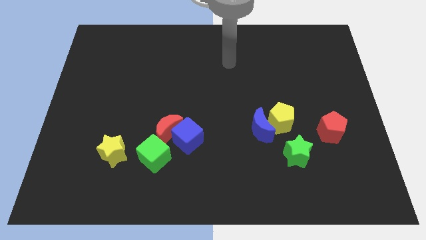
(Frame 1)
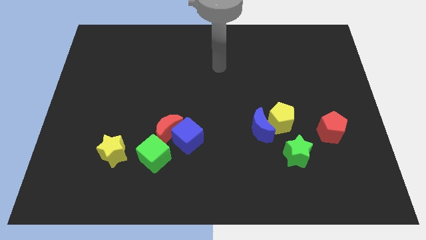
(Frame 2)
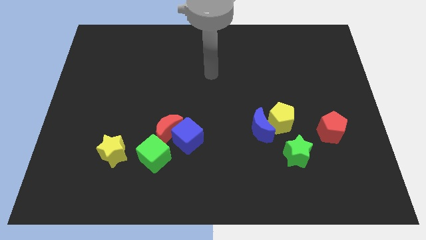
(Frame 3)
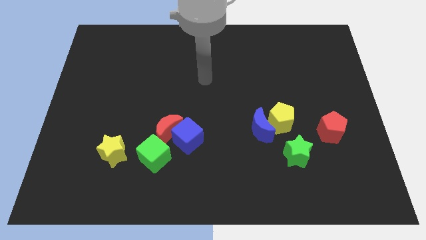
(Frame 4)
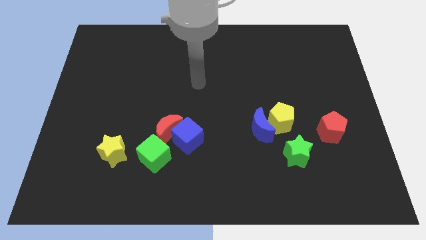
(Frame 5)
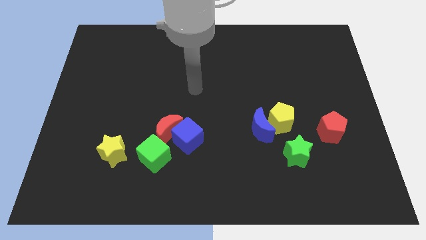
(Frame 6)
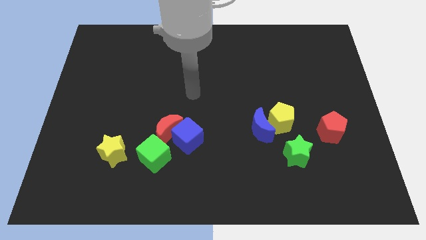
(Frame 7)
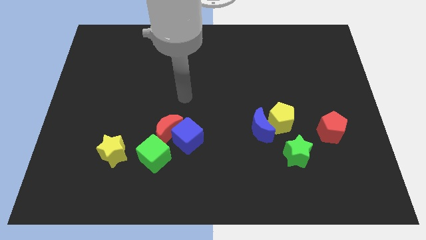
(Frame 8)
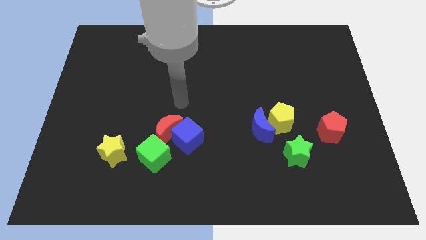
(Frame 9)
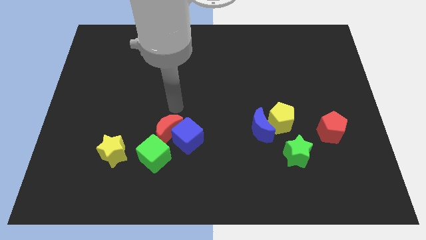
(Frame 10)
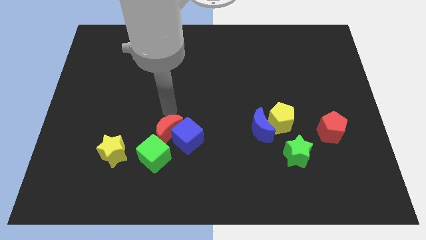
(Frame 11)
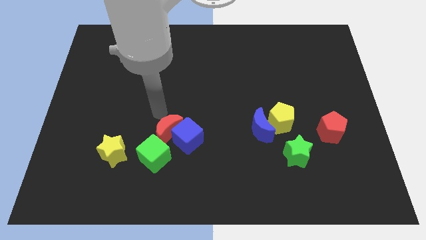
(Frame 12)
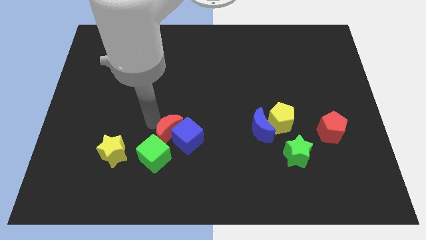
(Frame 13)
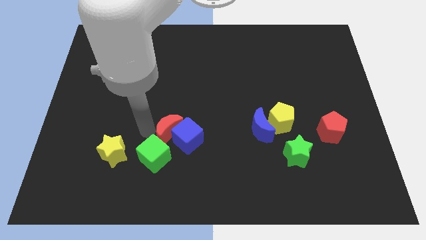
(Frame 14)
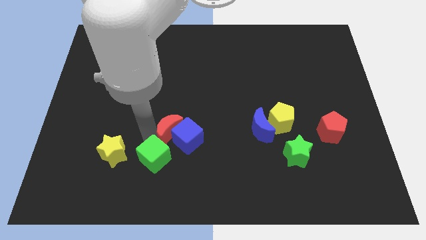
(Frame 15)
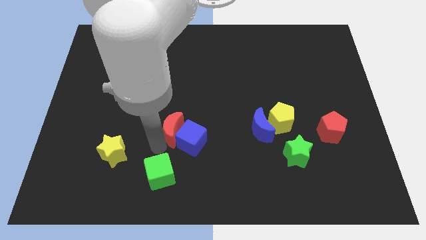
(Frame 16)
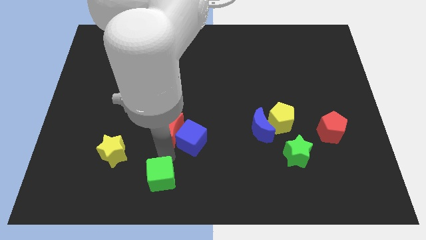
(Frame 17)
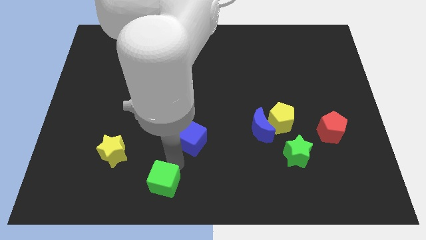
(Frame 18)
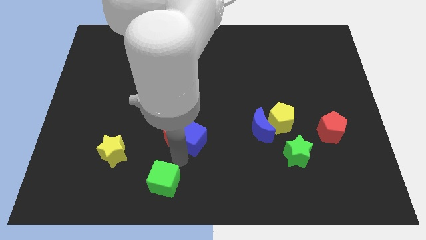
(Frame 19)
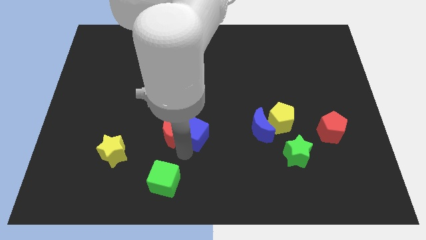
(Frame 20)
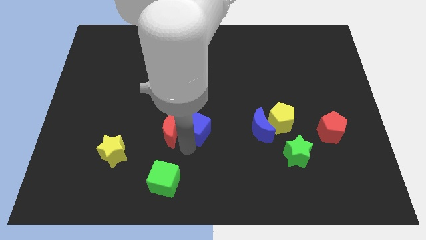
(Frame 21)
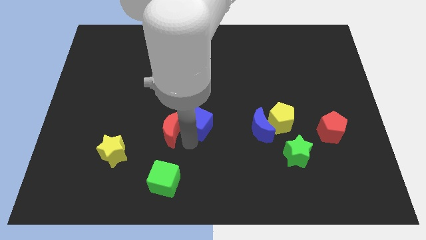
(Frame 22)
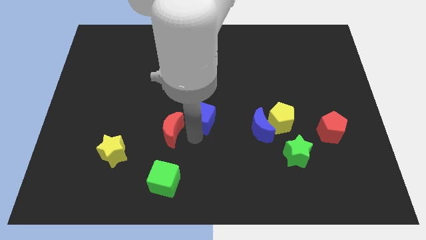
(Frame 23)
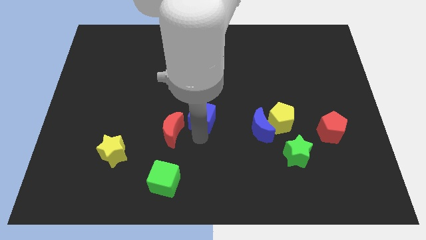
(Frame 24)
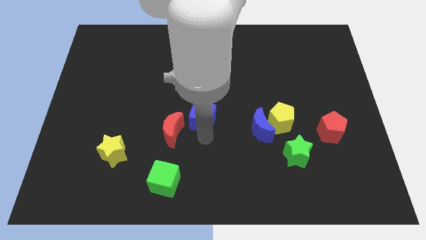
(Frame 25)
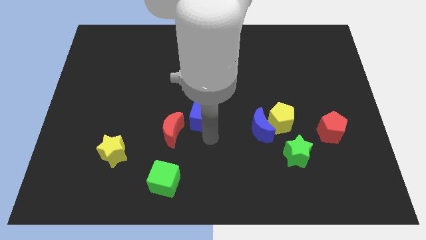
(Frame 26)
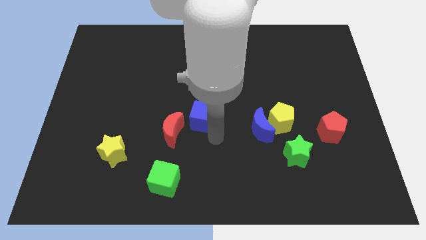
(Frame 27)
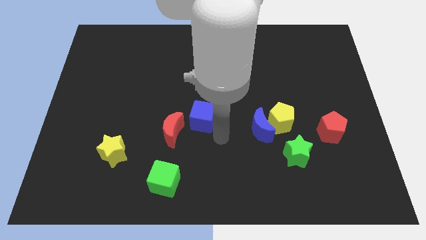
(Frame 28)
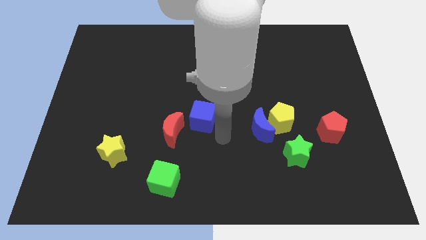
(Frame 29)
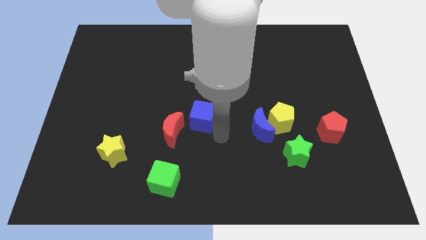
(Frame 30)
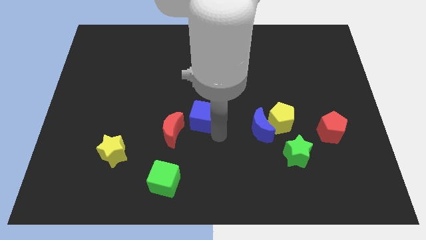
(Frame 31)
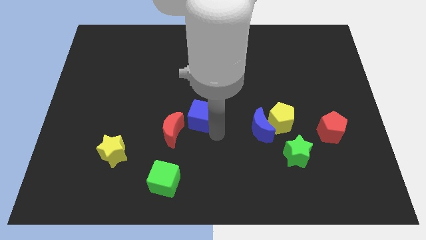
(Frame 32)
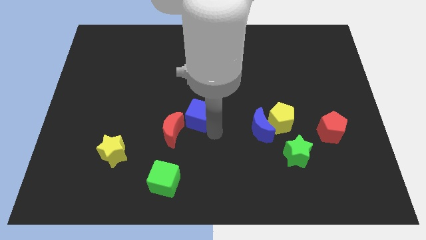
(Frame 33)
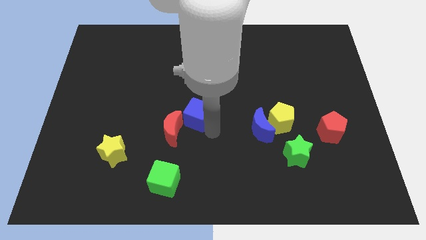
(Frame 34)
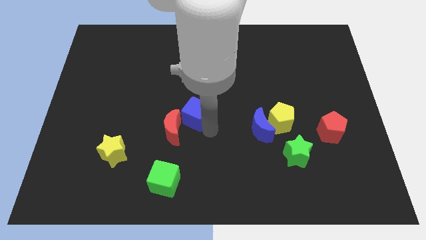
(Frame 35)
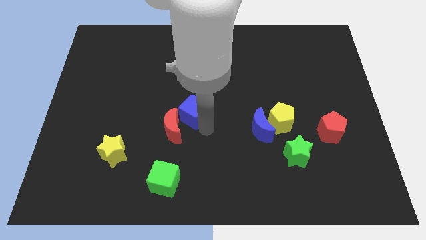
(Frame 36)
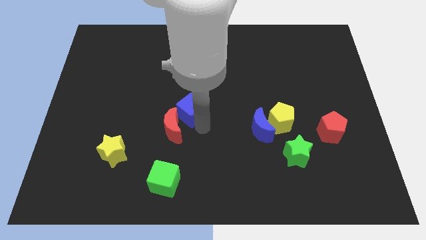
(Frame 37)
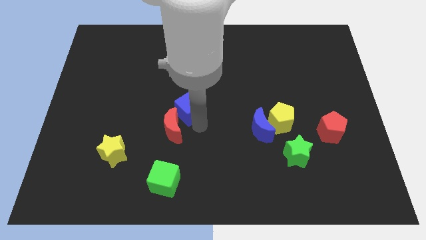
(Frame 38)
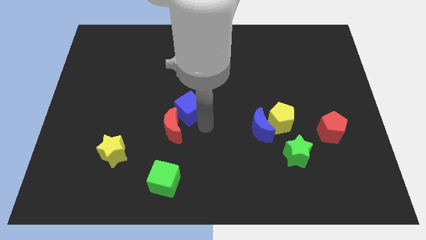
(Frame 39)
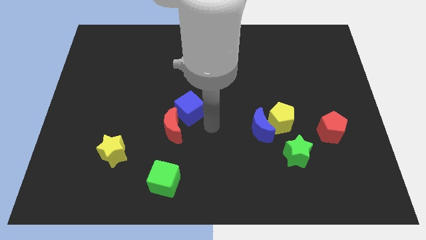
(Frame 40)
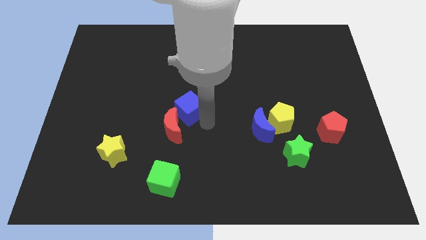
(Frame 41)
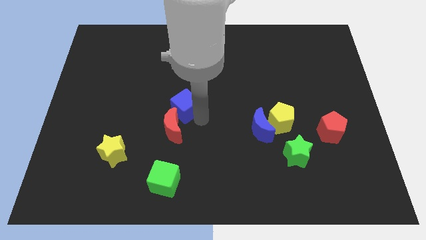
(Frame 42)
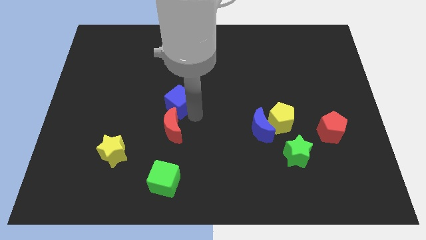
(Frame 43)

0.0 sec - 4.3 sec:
slide the blue cube diagonally upwards and left slightly

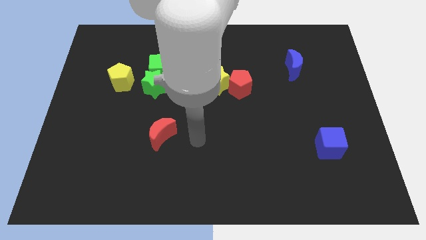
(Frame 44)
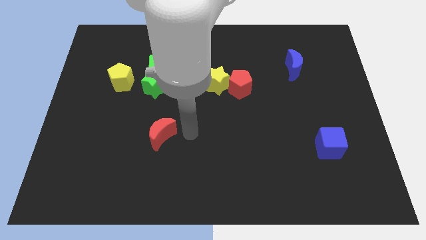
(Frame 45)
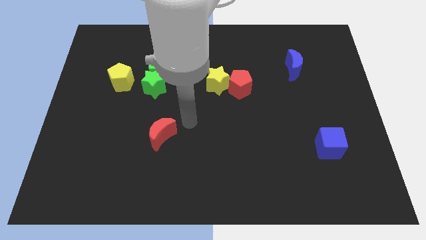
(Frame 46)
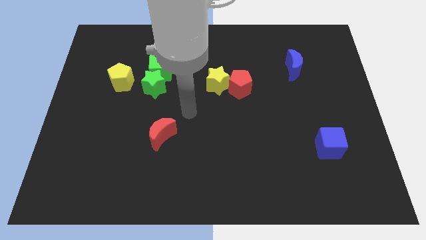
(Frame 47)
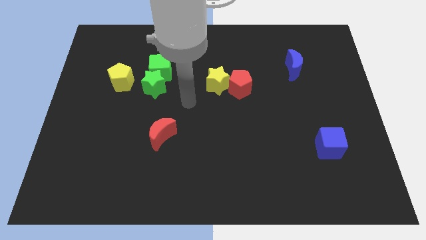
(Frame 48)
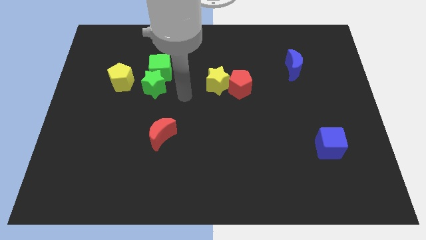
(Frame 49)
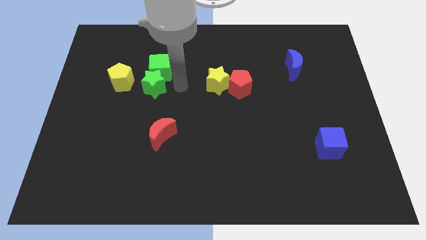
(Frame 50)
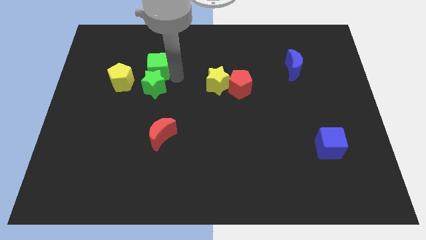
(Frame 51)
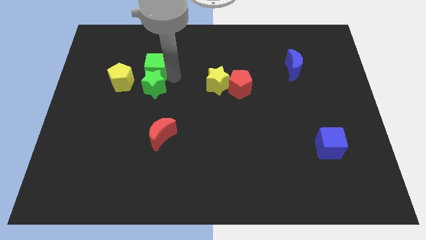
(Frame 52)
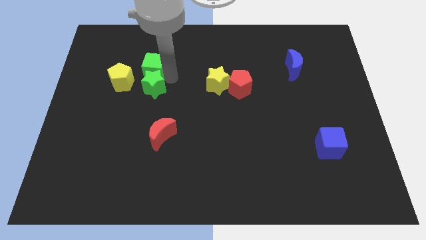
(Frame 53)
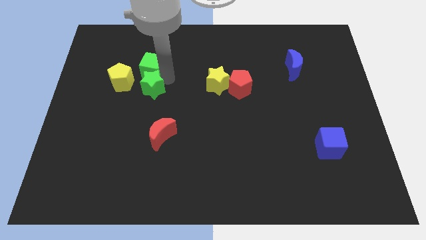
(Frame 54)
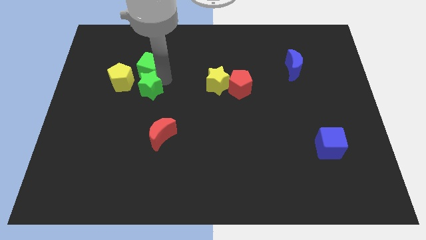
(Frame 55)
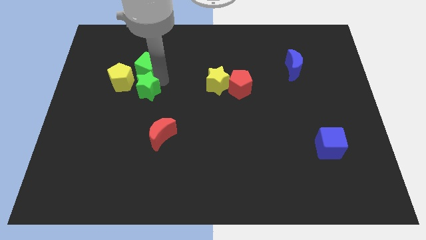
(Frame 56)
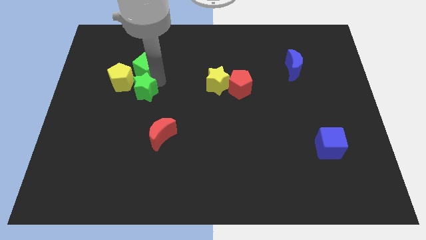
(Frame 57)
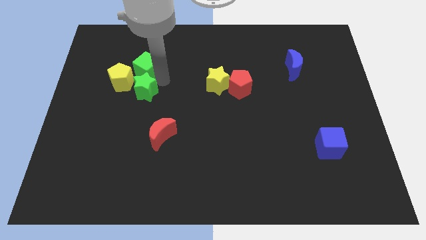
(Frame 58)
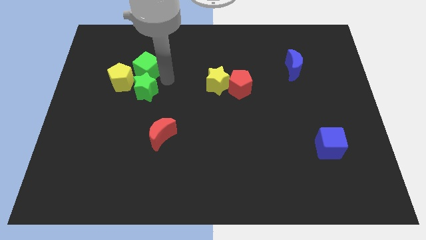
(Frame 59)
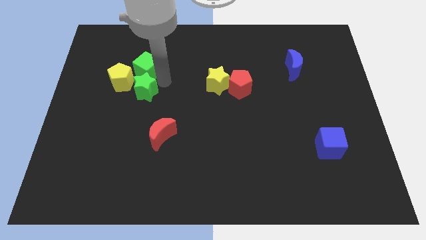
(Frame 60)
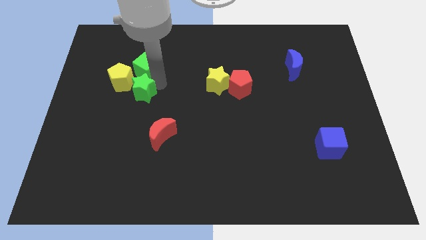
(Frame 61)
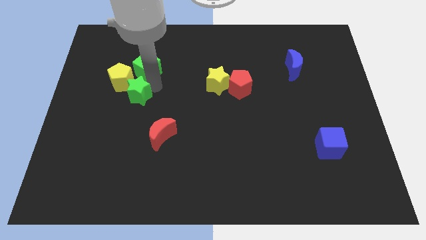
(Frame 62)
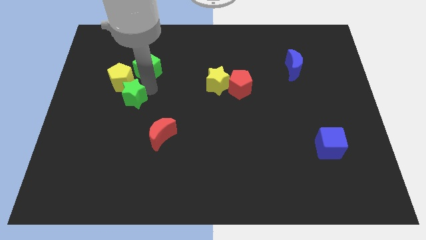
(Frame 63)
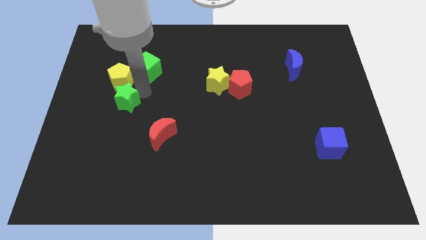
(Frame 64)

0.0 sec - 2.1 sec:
slide the green star diagonally down and left a little bit

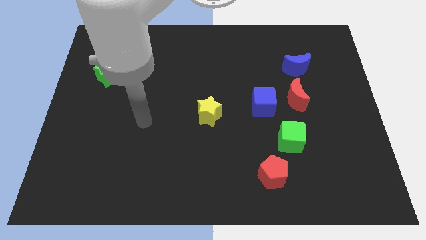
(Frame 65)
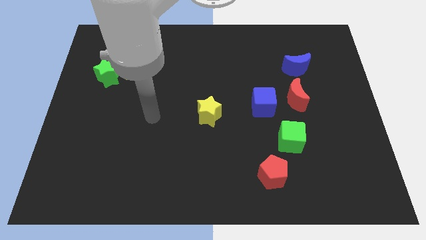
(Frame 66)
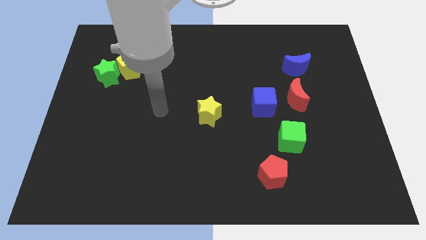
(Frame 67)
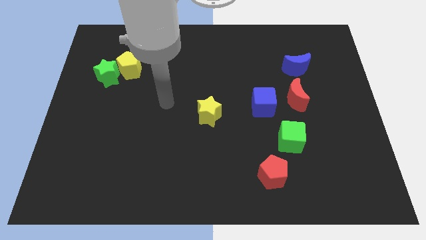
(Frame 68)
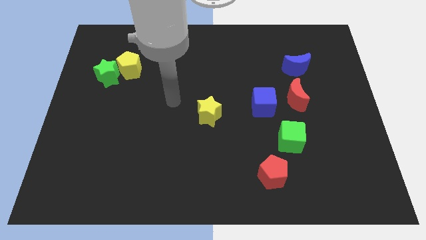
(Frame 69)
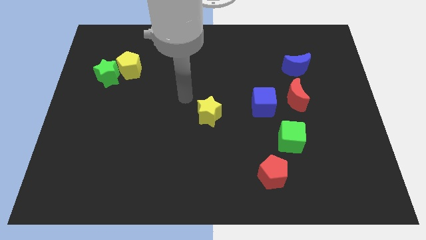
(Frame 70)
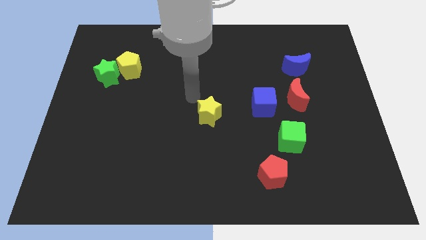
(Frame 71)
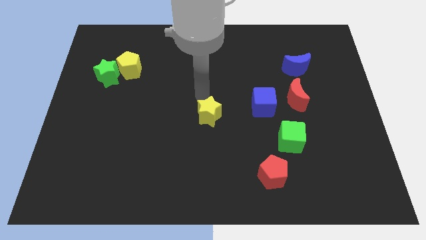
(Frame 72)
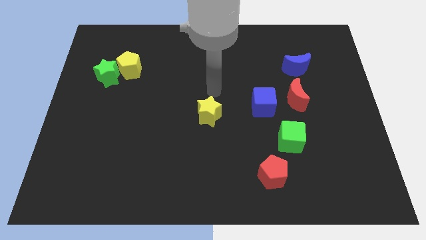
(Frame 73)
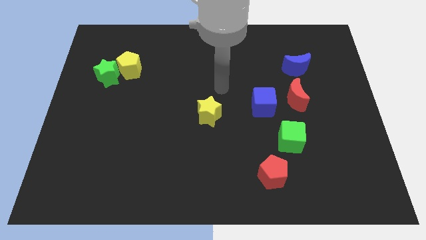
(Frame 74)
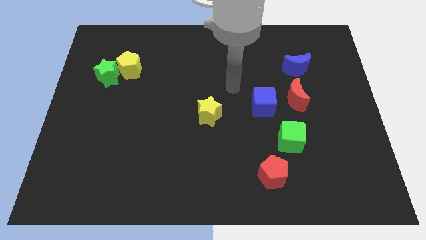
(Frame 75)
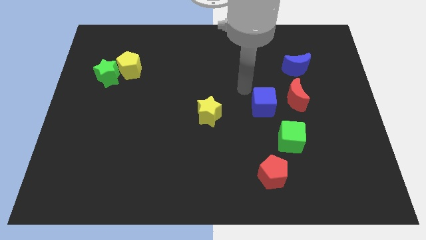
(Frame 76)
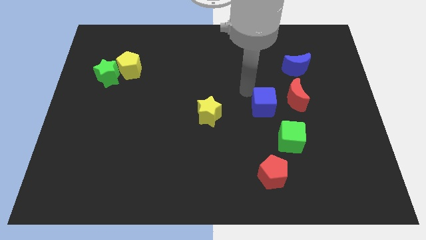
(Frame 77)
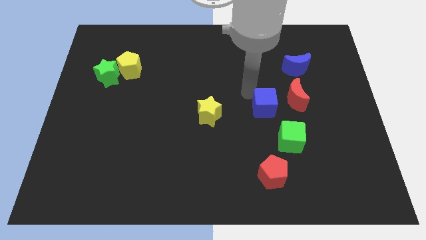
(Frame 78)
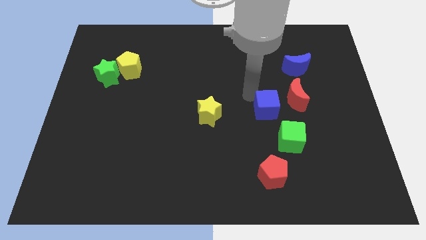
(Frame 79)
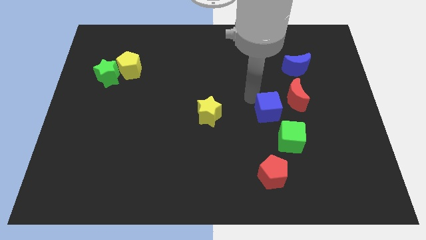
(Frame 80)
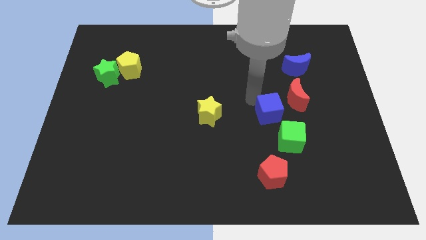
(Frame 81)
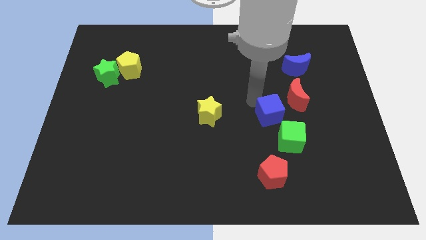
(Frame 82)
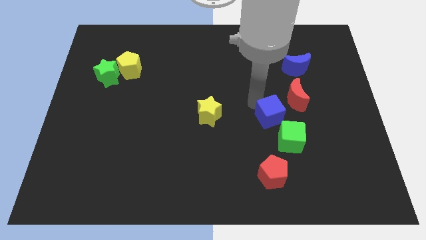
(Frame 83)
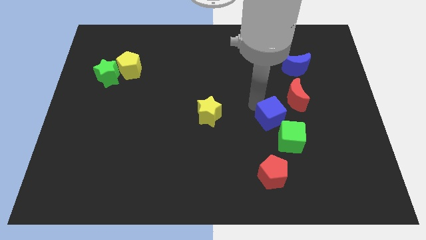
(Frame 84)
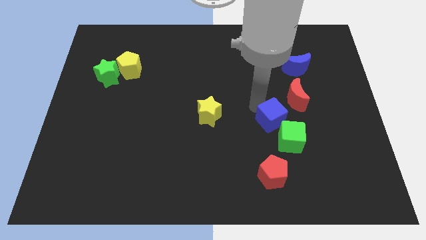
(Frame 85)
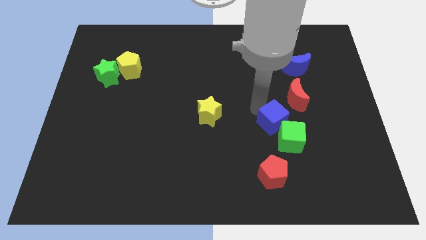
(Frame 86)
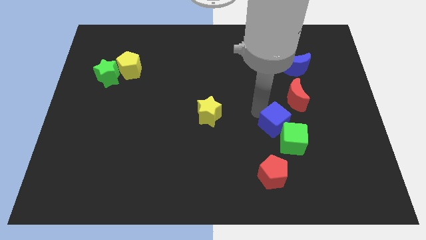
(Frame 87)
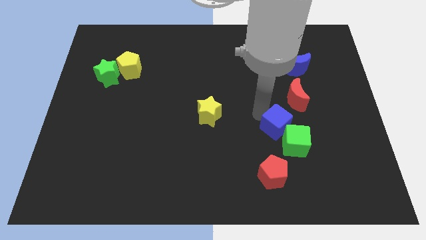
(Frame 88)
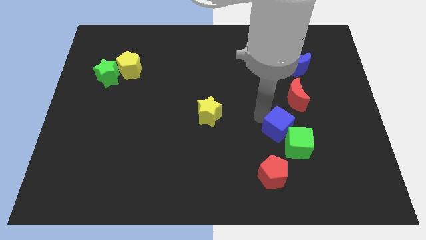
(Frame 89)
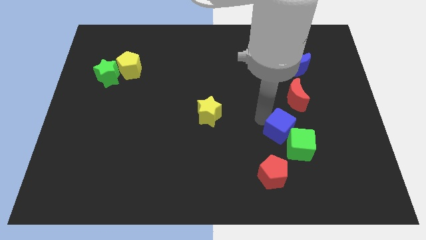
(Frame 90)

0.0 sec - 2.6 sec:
push the blue cube diagonally downwards and to the right somewhat
